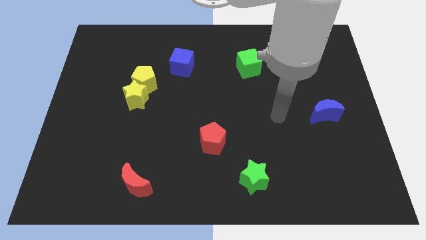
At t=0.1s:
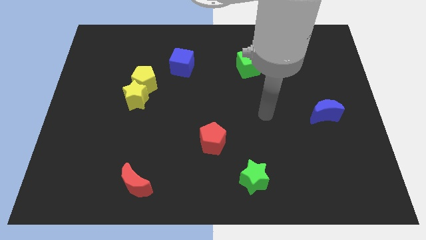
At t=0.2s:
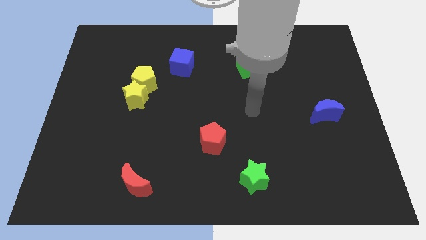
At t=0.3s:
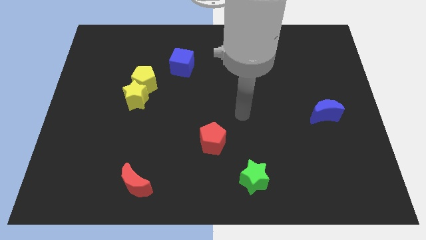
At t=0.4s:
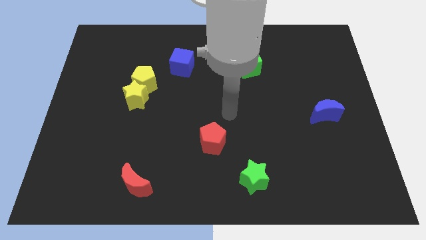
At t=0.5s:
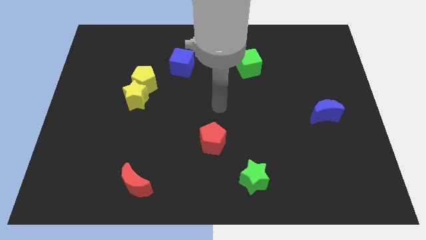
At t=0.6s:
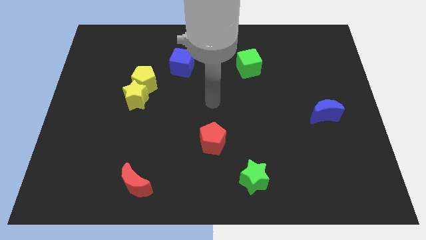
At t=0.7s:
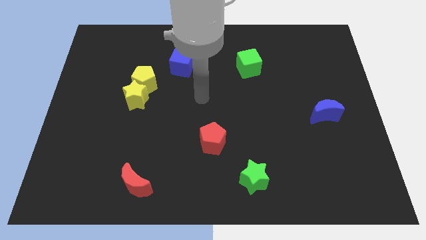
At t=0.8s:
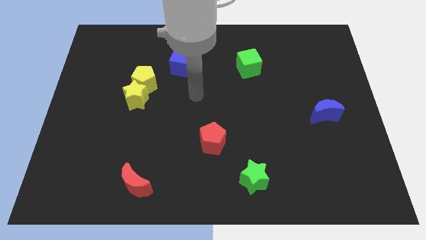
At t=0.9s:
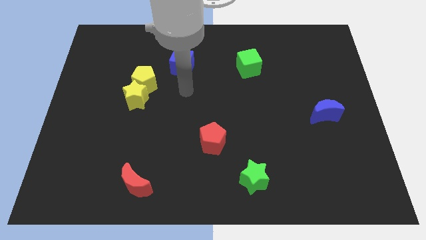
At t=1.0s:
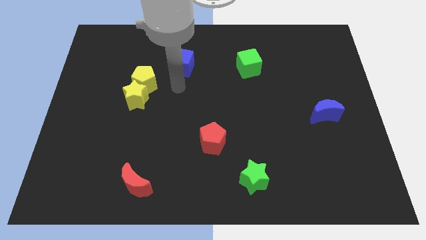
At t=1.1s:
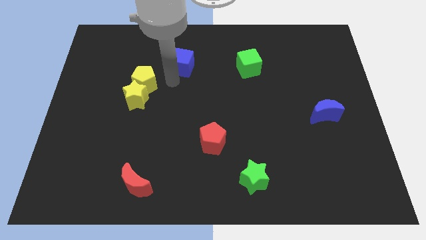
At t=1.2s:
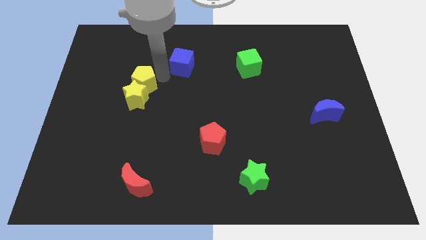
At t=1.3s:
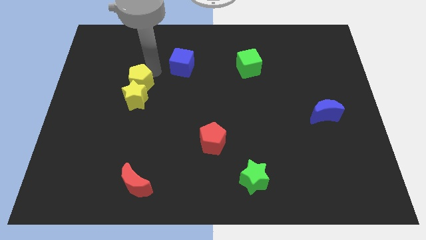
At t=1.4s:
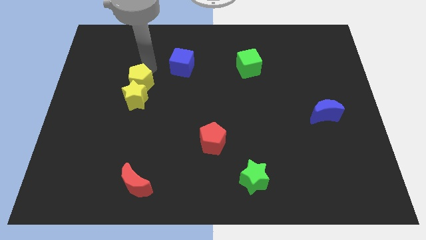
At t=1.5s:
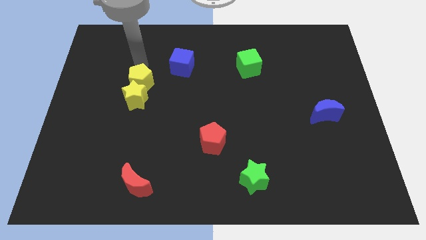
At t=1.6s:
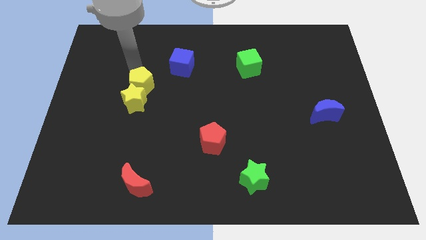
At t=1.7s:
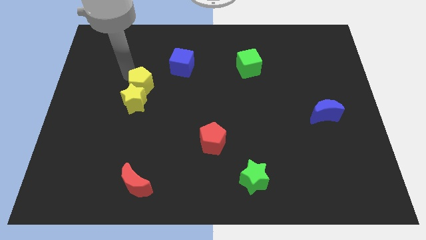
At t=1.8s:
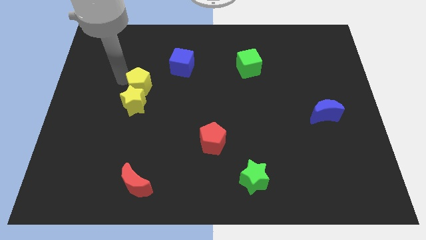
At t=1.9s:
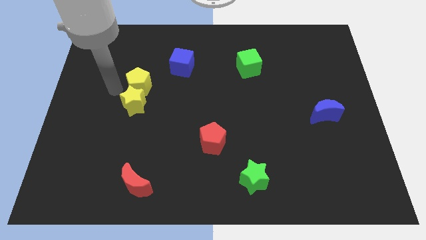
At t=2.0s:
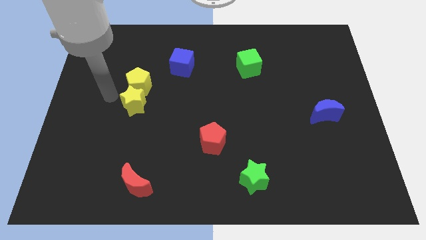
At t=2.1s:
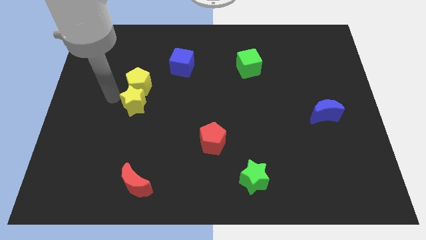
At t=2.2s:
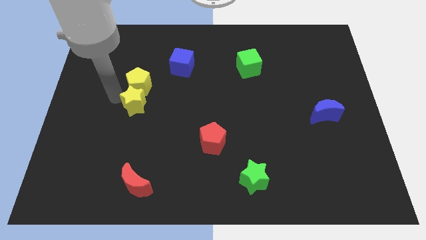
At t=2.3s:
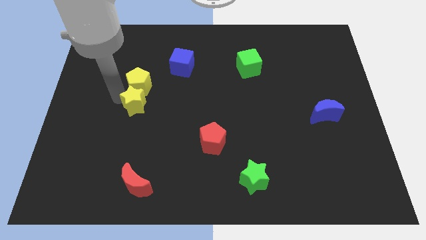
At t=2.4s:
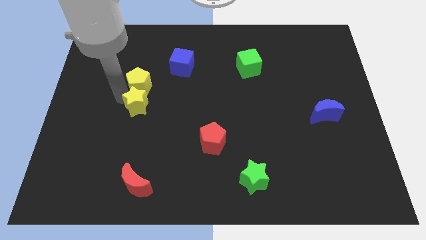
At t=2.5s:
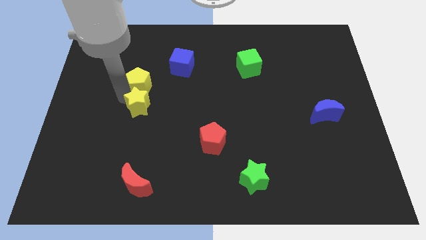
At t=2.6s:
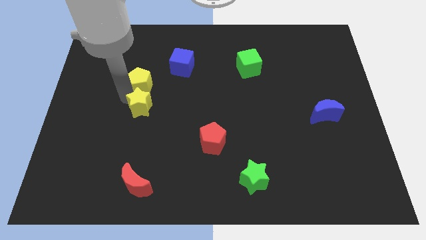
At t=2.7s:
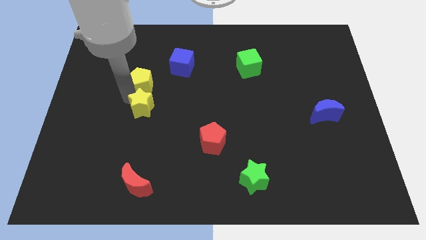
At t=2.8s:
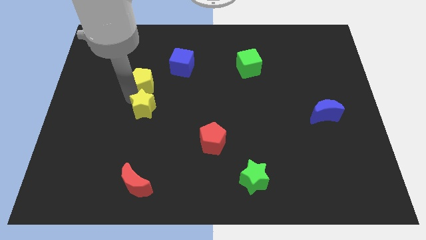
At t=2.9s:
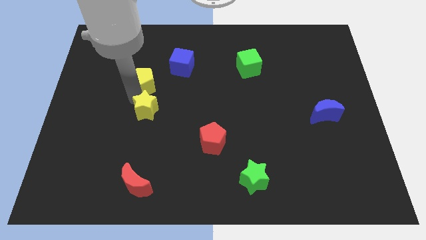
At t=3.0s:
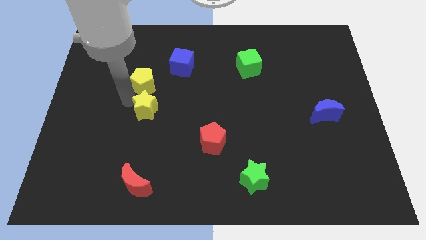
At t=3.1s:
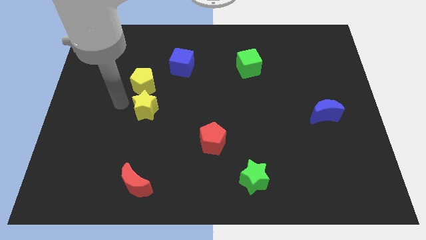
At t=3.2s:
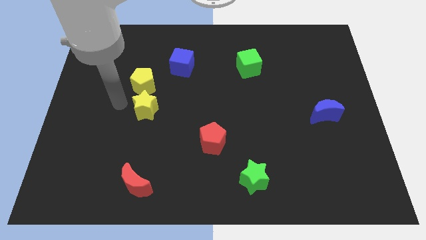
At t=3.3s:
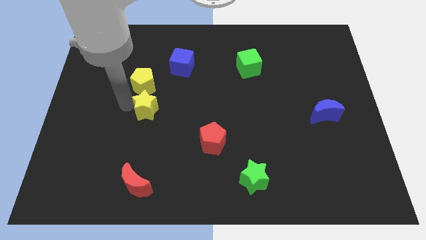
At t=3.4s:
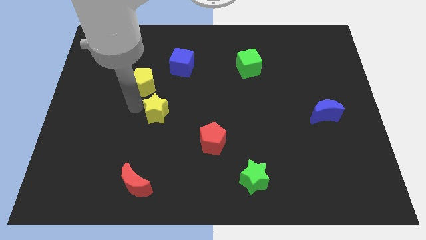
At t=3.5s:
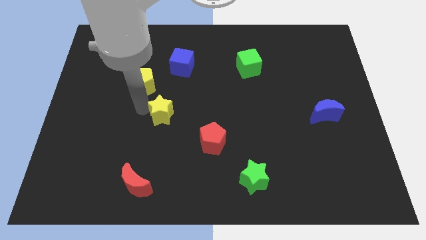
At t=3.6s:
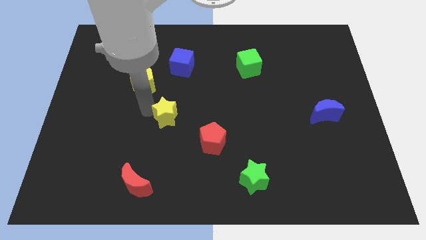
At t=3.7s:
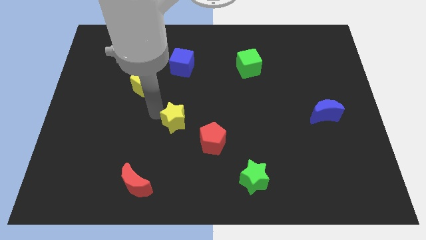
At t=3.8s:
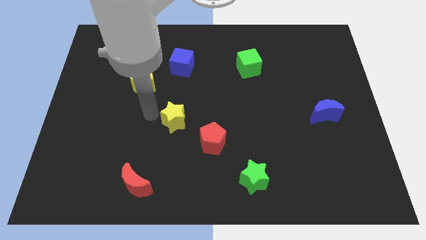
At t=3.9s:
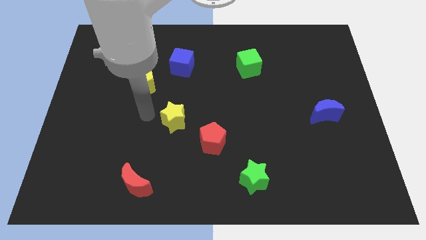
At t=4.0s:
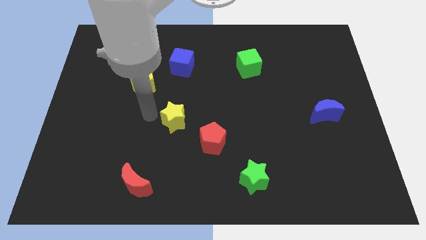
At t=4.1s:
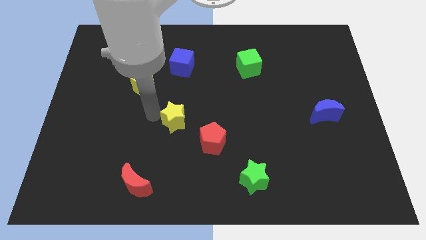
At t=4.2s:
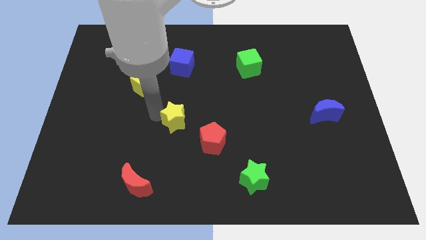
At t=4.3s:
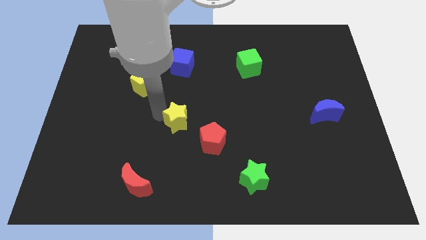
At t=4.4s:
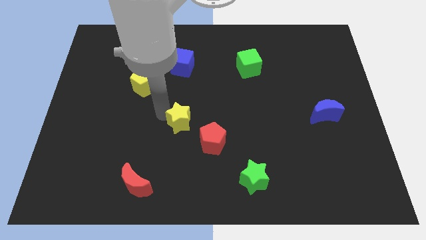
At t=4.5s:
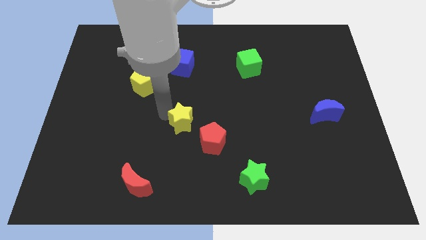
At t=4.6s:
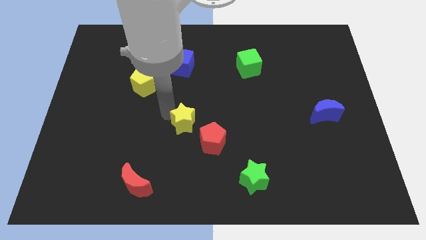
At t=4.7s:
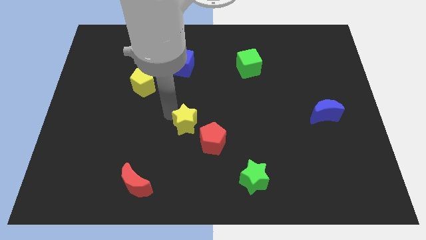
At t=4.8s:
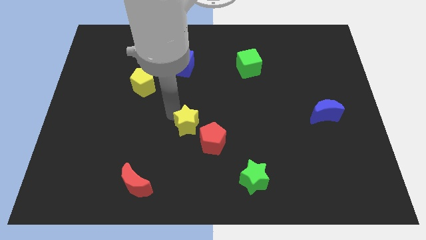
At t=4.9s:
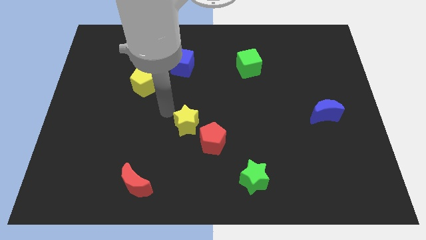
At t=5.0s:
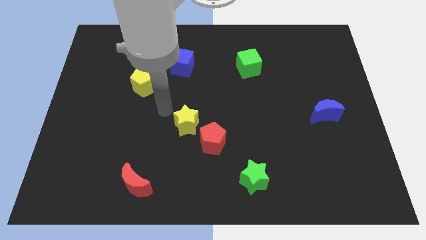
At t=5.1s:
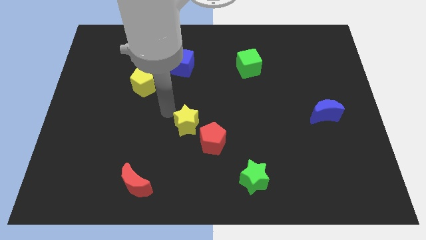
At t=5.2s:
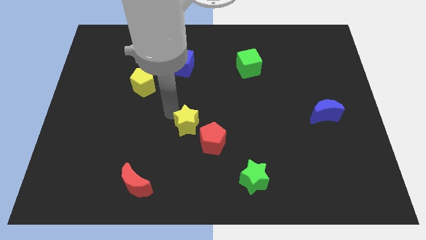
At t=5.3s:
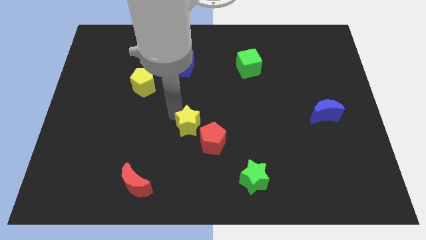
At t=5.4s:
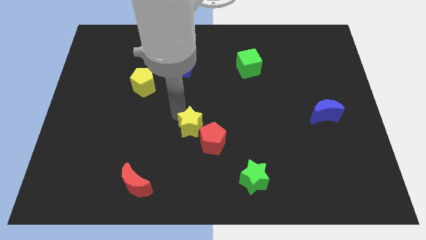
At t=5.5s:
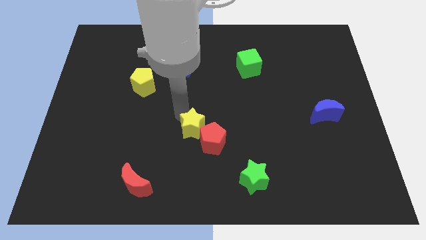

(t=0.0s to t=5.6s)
push the yellow star close to the red pentagon

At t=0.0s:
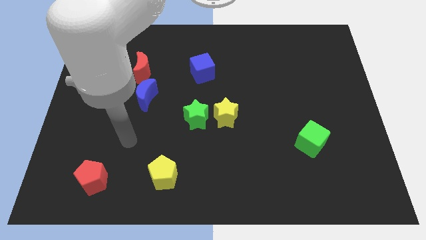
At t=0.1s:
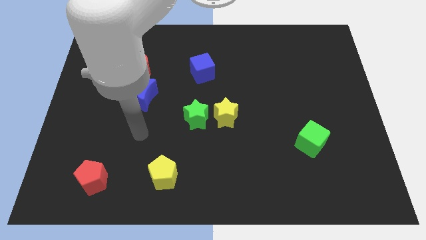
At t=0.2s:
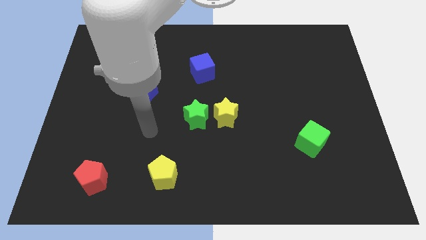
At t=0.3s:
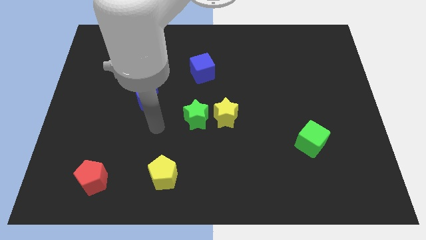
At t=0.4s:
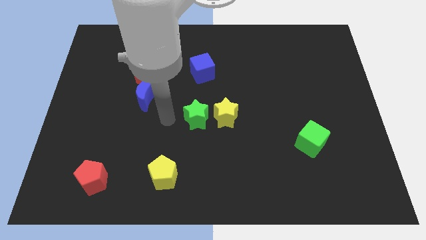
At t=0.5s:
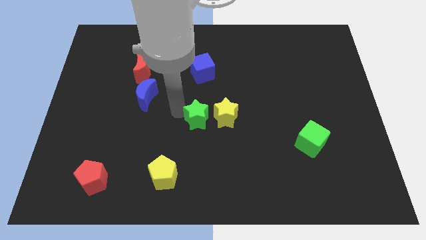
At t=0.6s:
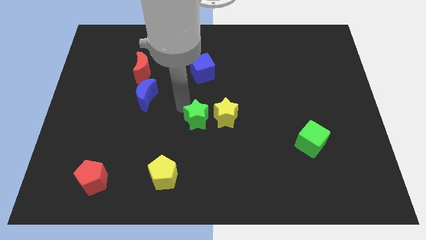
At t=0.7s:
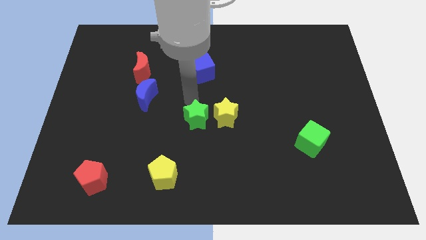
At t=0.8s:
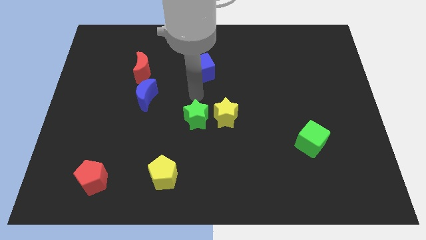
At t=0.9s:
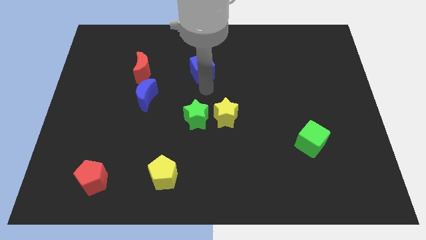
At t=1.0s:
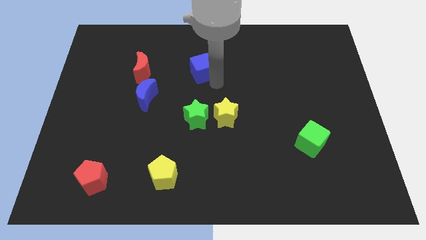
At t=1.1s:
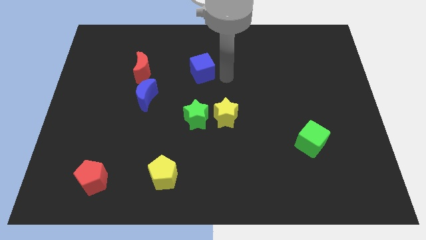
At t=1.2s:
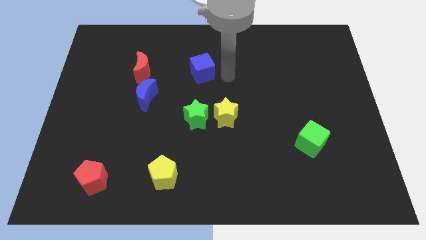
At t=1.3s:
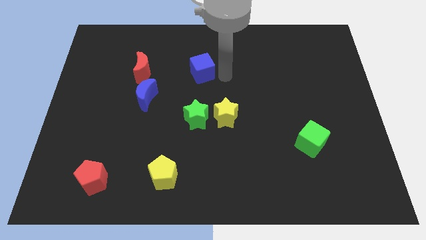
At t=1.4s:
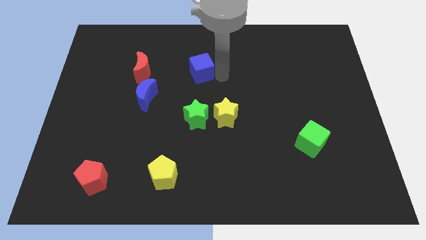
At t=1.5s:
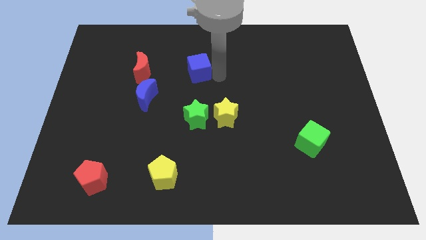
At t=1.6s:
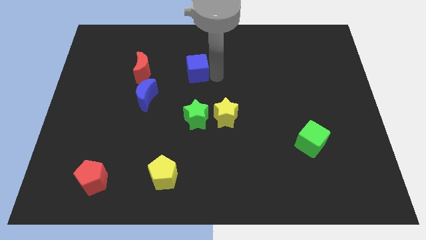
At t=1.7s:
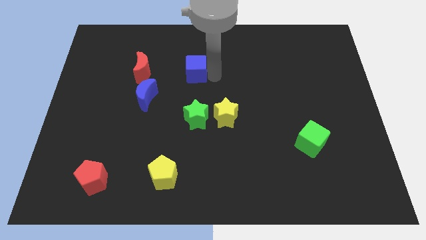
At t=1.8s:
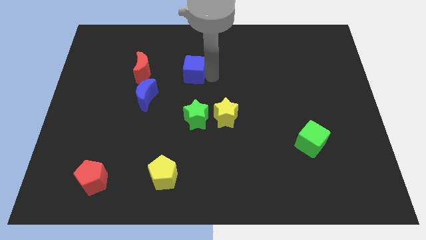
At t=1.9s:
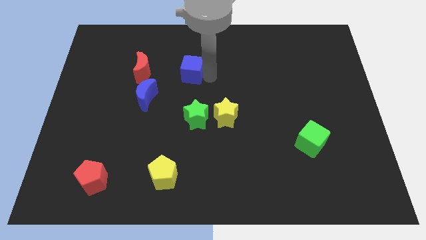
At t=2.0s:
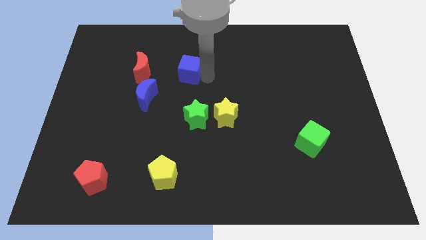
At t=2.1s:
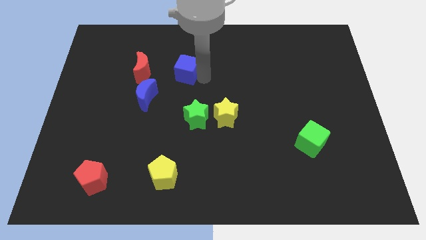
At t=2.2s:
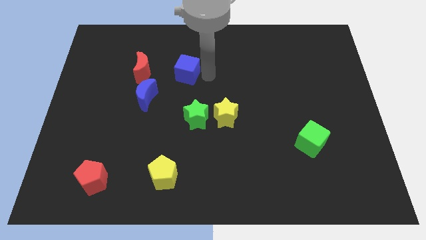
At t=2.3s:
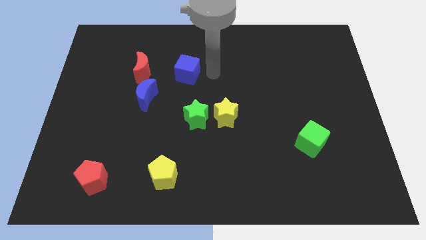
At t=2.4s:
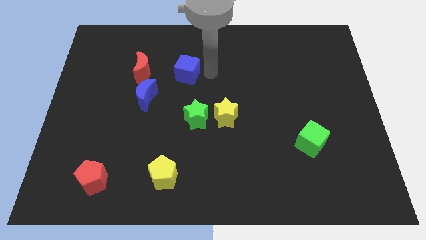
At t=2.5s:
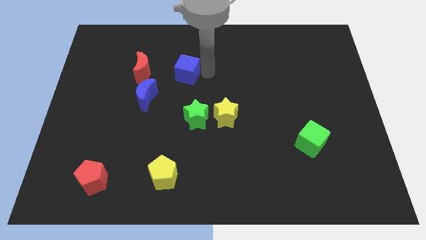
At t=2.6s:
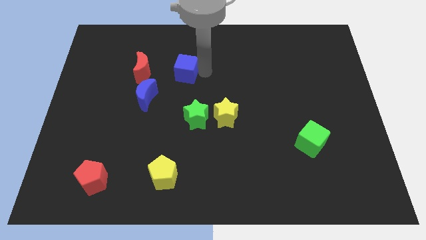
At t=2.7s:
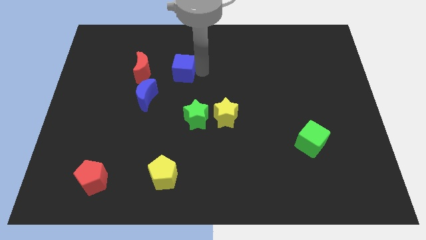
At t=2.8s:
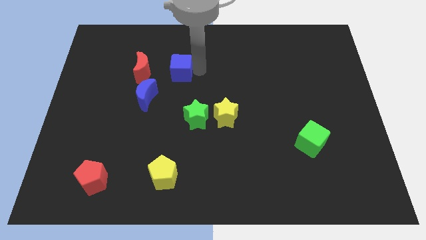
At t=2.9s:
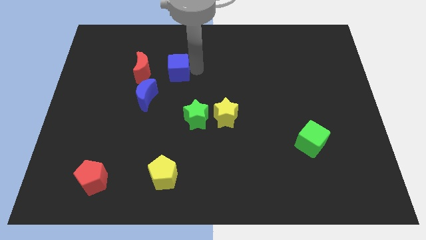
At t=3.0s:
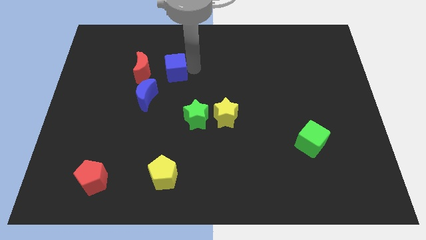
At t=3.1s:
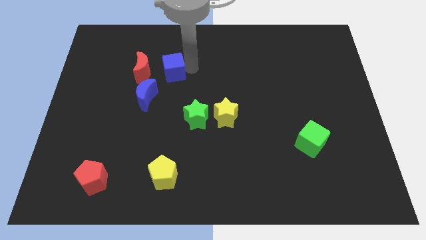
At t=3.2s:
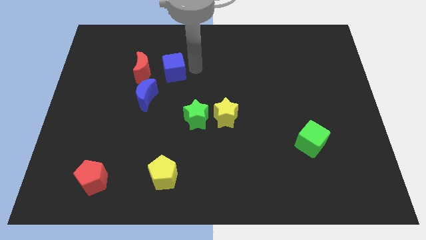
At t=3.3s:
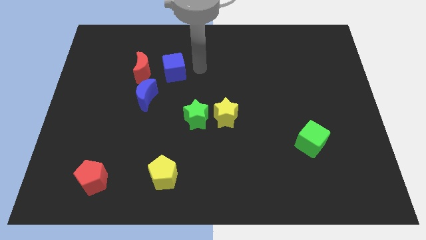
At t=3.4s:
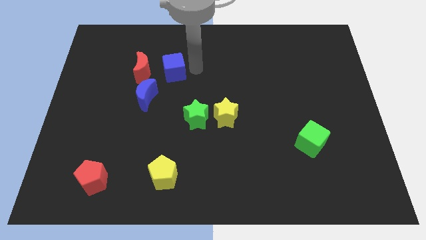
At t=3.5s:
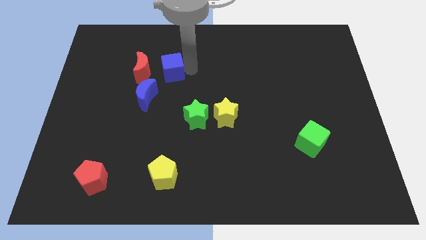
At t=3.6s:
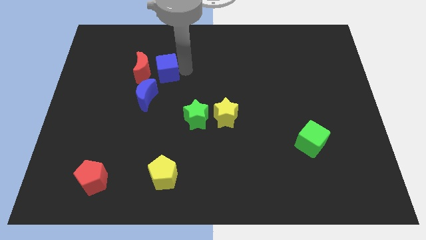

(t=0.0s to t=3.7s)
put the blue cube next to the red moon
